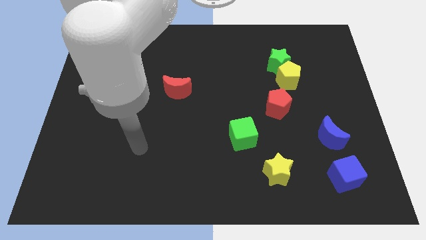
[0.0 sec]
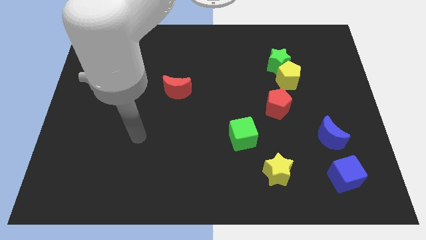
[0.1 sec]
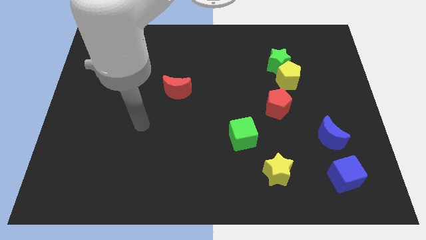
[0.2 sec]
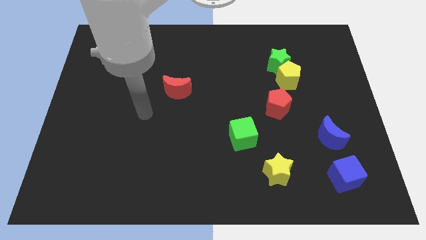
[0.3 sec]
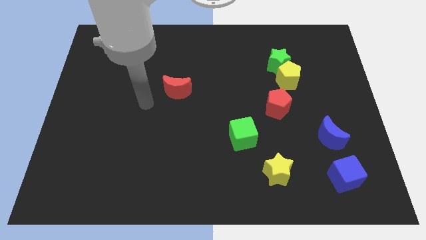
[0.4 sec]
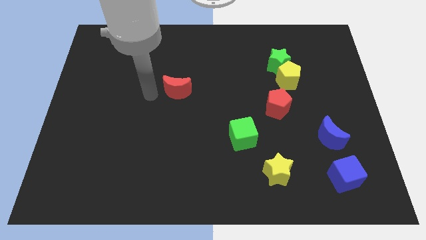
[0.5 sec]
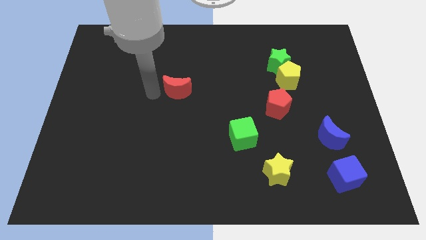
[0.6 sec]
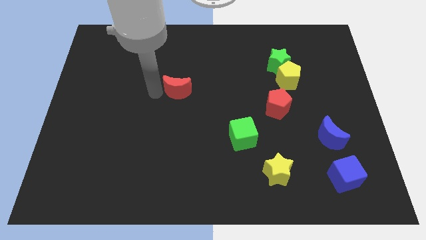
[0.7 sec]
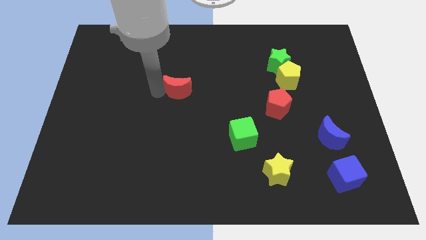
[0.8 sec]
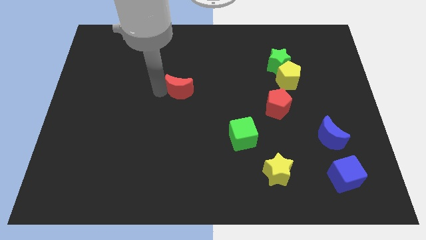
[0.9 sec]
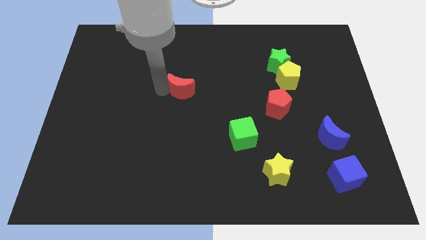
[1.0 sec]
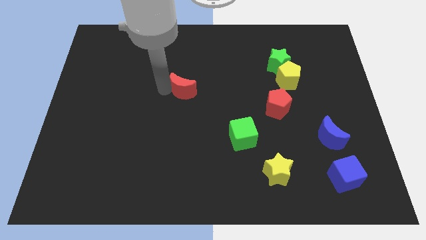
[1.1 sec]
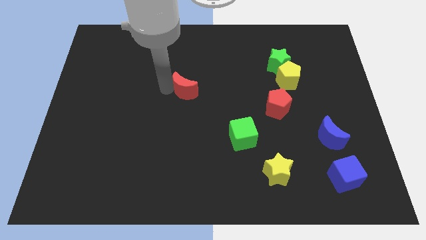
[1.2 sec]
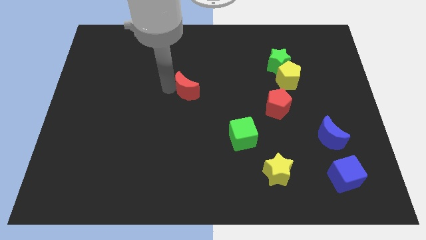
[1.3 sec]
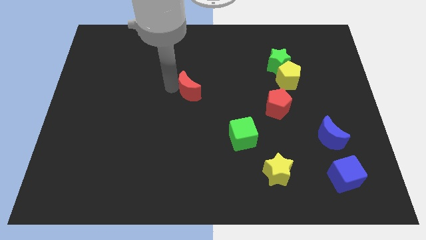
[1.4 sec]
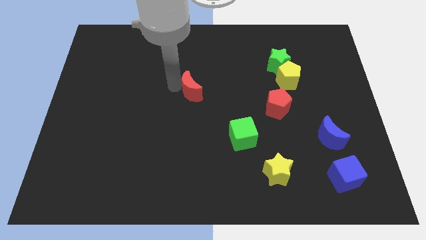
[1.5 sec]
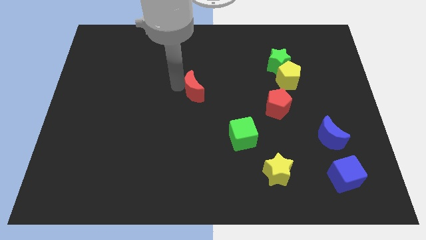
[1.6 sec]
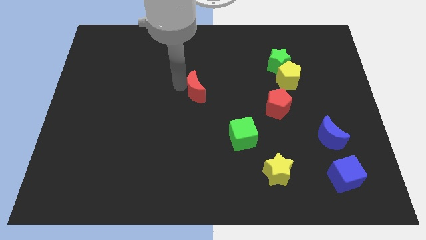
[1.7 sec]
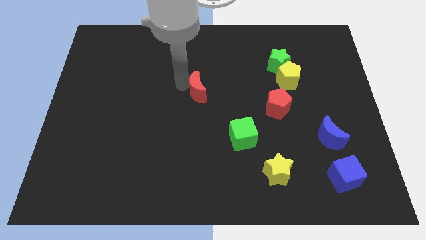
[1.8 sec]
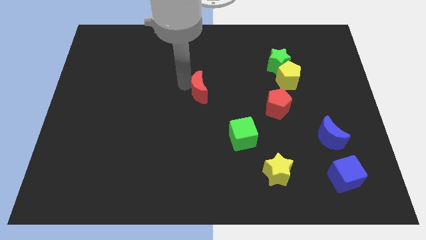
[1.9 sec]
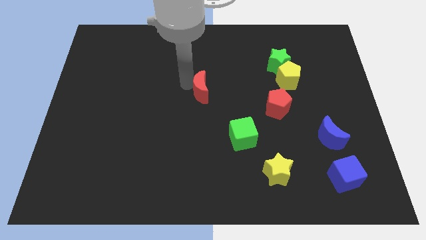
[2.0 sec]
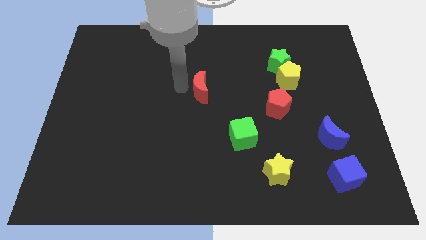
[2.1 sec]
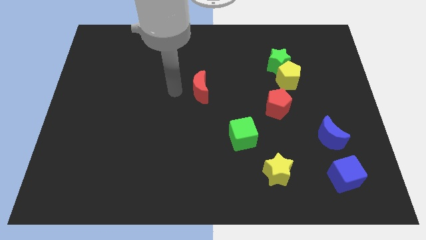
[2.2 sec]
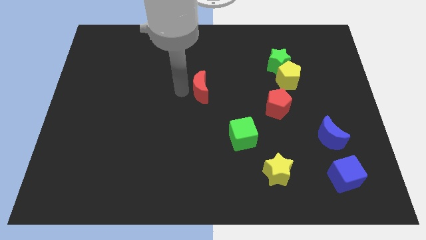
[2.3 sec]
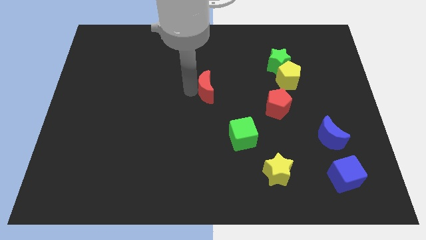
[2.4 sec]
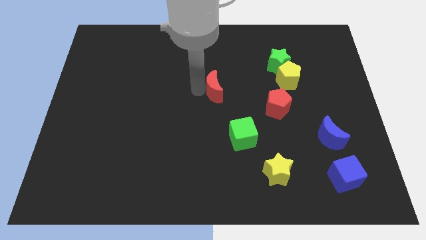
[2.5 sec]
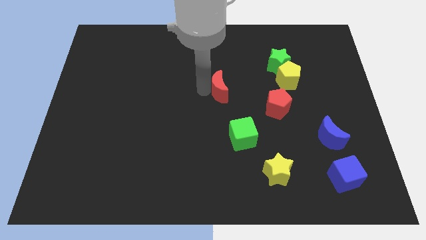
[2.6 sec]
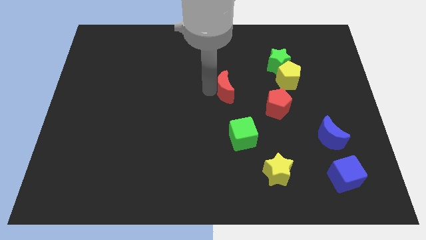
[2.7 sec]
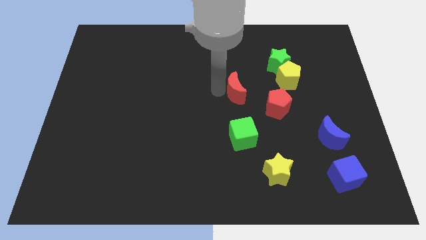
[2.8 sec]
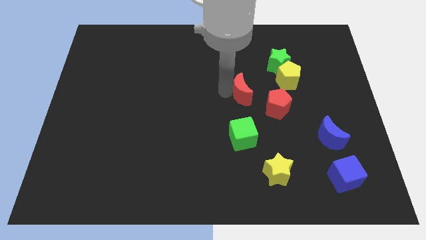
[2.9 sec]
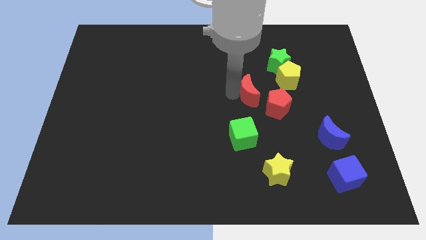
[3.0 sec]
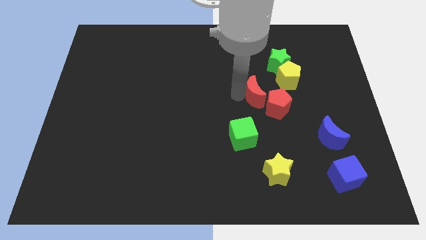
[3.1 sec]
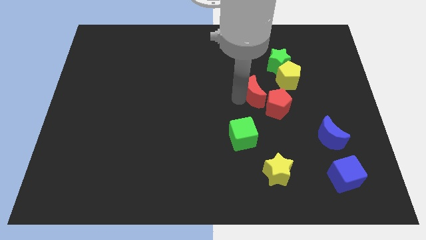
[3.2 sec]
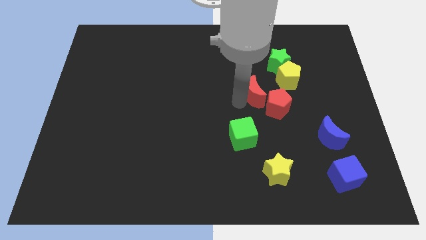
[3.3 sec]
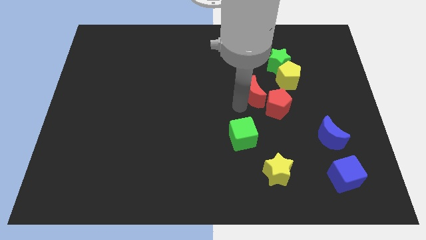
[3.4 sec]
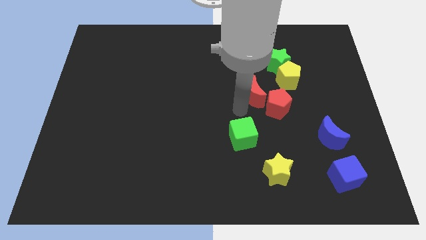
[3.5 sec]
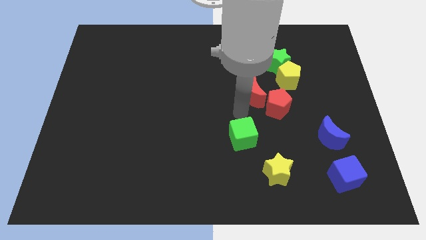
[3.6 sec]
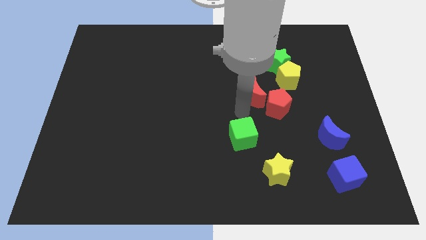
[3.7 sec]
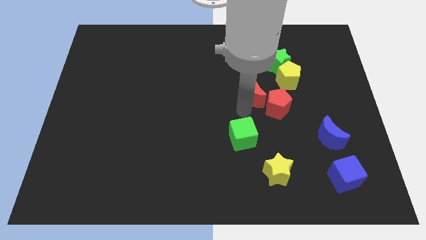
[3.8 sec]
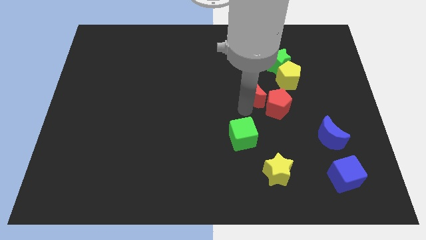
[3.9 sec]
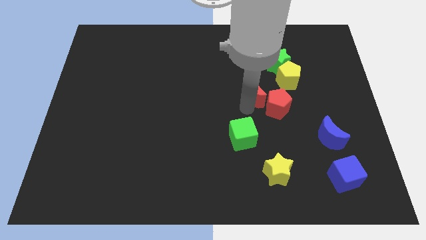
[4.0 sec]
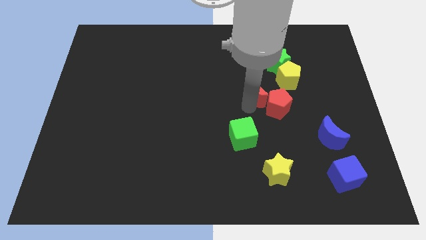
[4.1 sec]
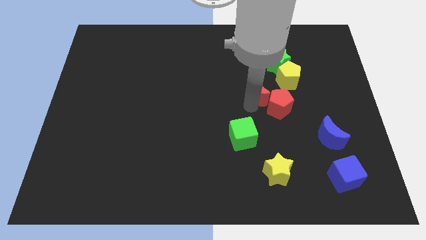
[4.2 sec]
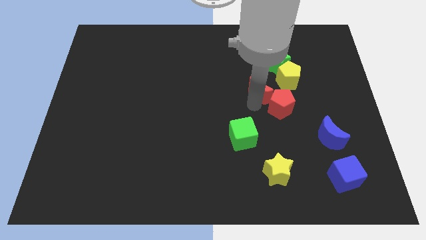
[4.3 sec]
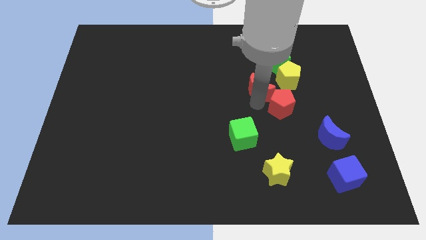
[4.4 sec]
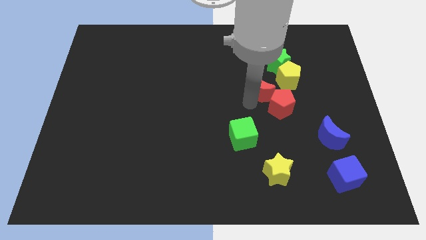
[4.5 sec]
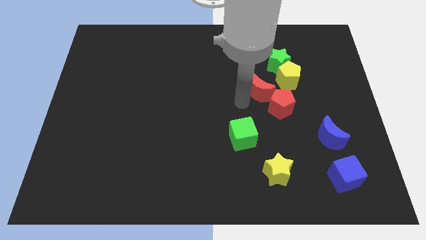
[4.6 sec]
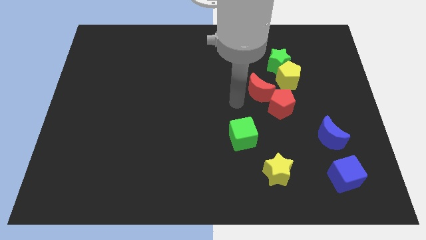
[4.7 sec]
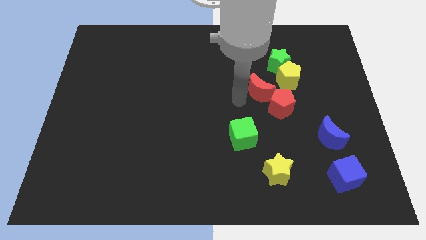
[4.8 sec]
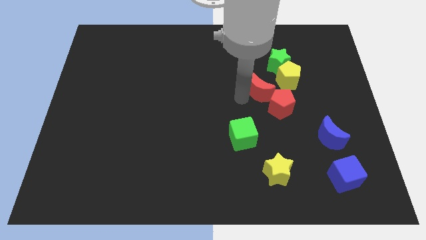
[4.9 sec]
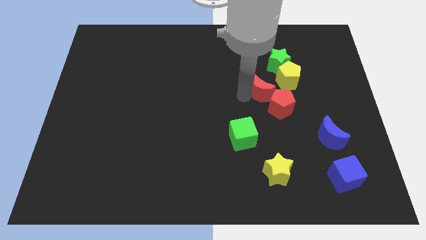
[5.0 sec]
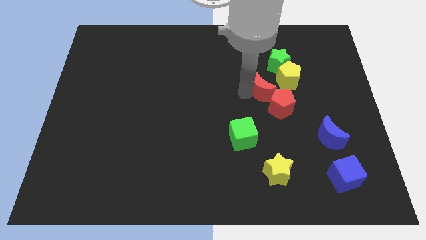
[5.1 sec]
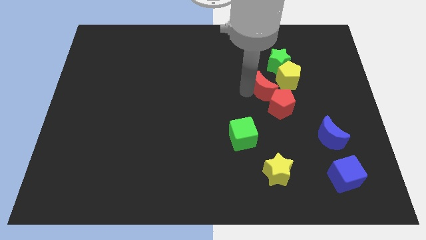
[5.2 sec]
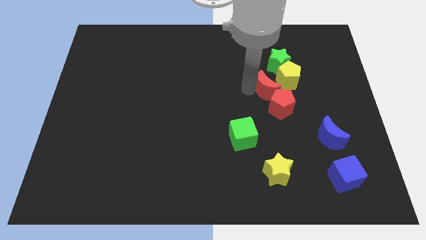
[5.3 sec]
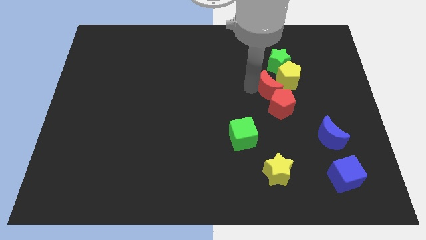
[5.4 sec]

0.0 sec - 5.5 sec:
push the red moon next to the yellow pentagon

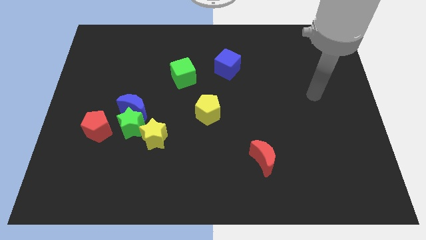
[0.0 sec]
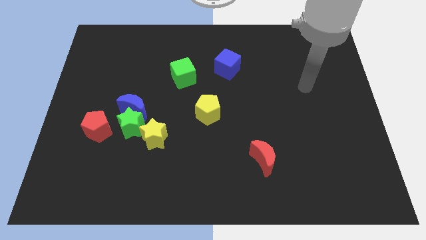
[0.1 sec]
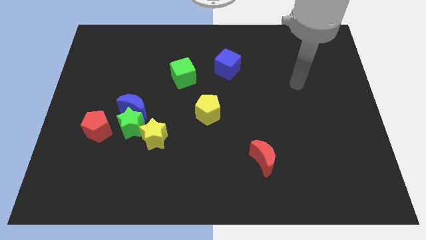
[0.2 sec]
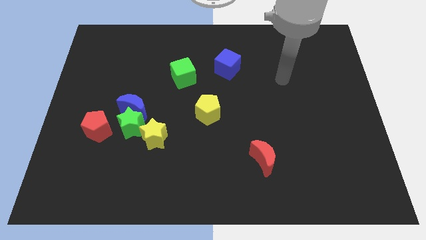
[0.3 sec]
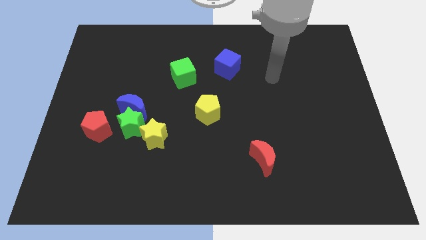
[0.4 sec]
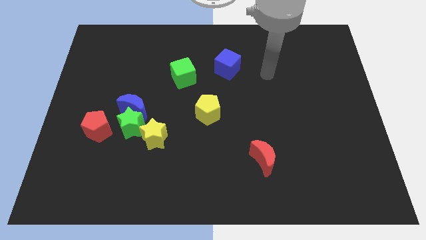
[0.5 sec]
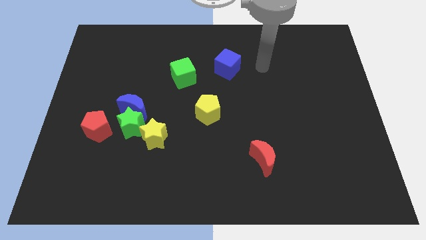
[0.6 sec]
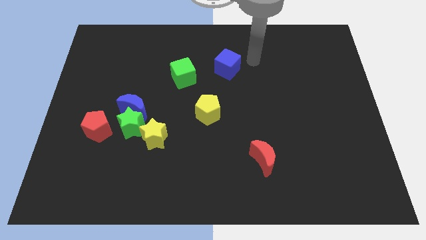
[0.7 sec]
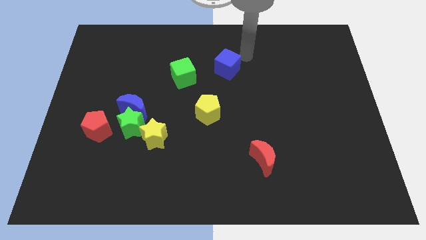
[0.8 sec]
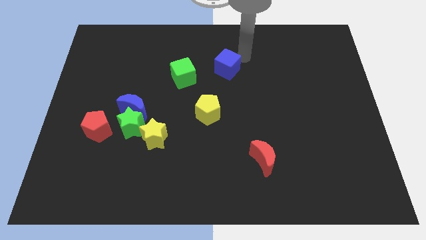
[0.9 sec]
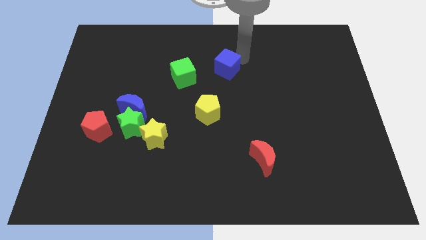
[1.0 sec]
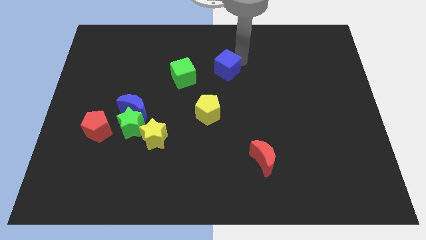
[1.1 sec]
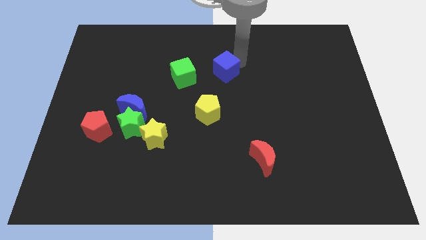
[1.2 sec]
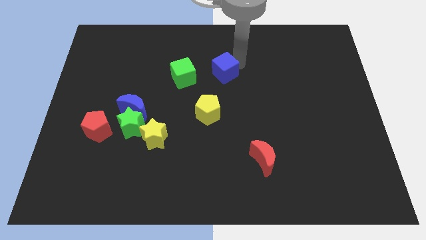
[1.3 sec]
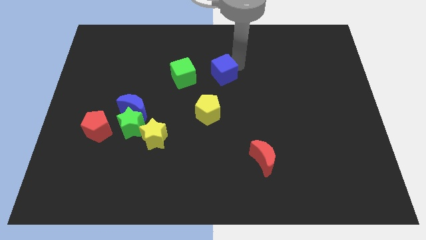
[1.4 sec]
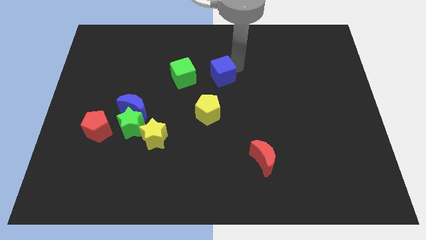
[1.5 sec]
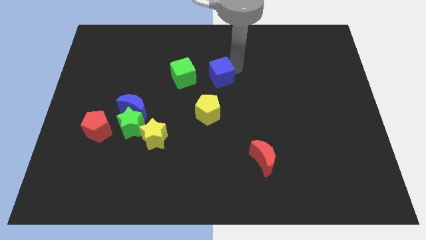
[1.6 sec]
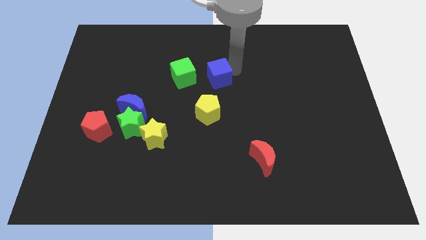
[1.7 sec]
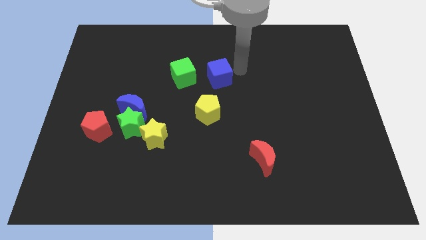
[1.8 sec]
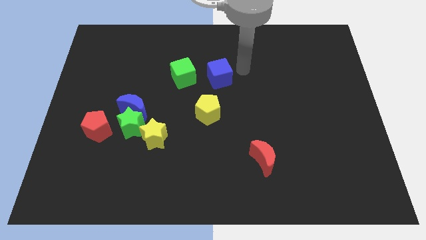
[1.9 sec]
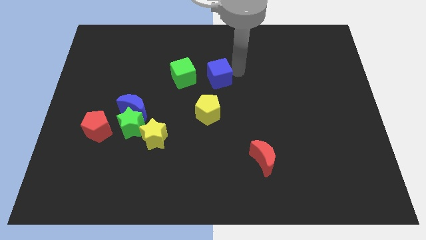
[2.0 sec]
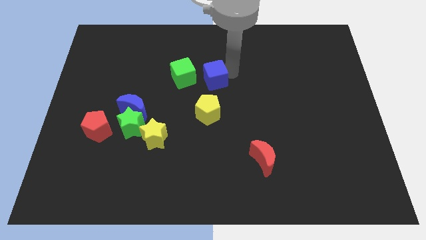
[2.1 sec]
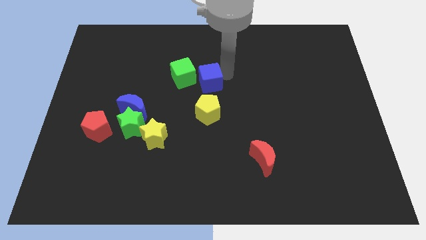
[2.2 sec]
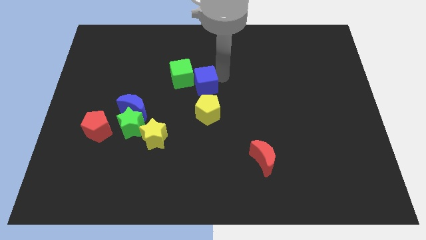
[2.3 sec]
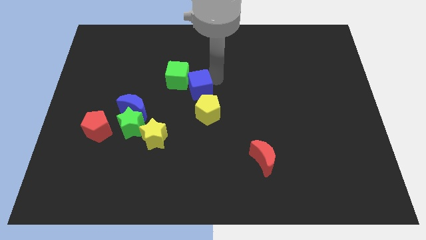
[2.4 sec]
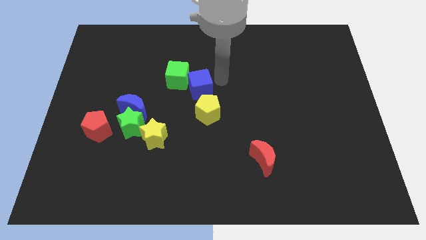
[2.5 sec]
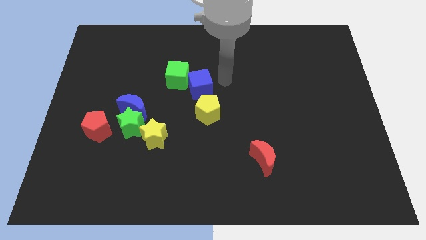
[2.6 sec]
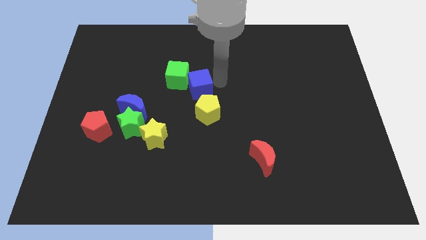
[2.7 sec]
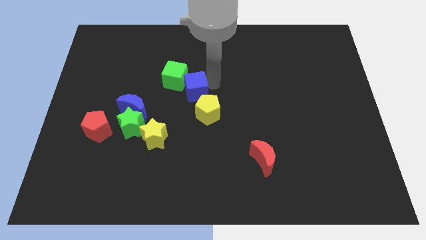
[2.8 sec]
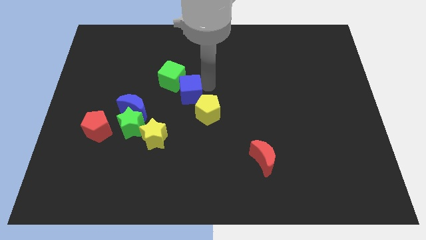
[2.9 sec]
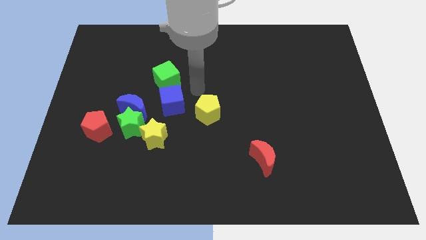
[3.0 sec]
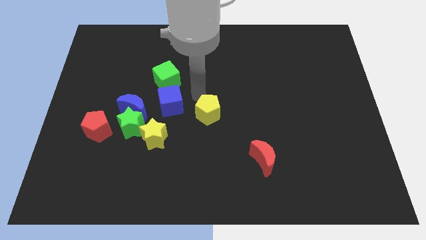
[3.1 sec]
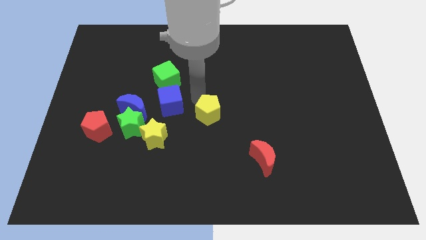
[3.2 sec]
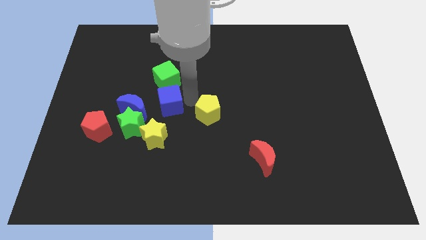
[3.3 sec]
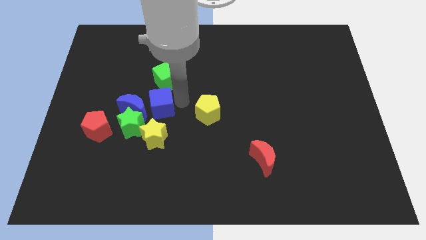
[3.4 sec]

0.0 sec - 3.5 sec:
move the blue cube close to the blue moon
